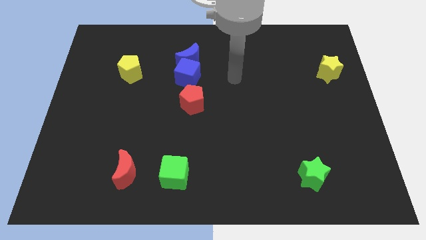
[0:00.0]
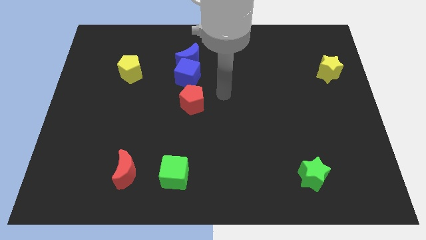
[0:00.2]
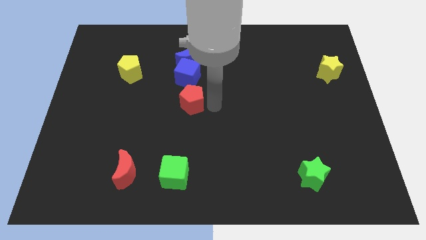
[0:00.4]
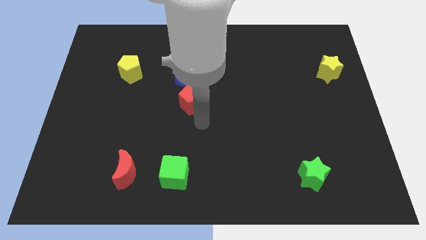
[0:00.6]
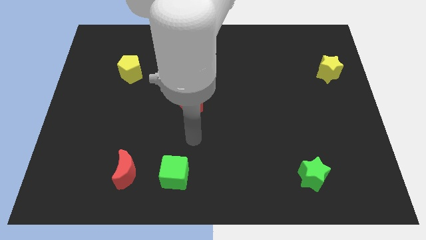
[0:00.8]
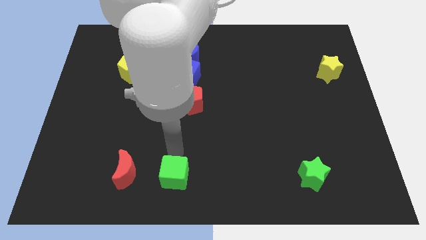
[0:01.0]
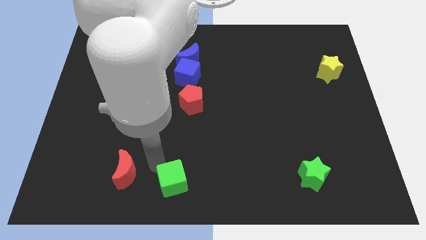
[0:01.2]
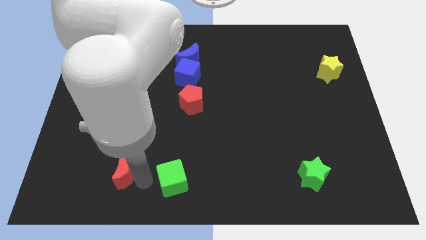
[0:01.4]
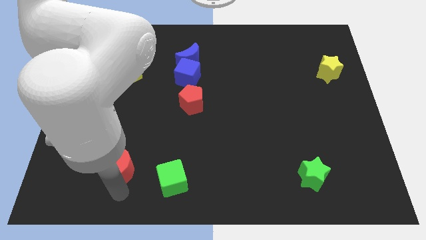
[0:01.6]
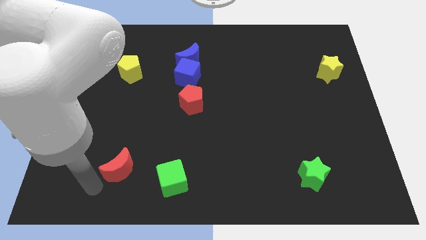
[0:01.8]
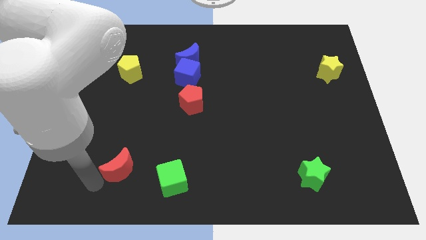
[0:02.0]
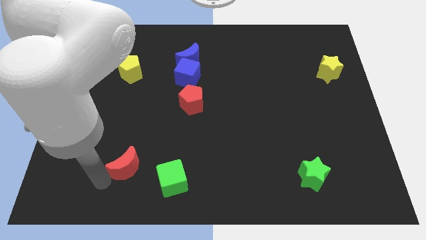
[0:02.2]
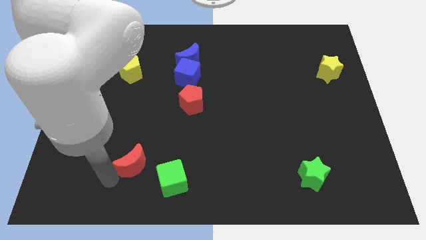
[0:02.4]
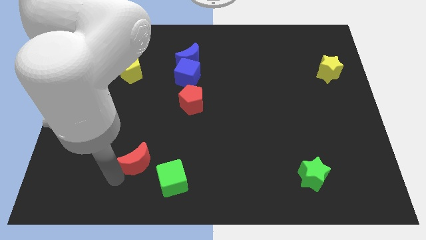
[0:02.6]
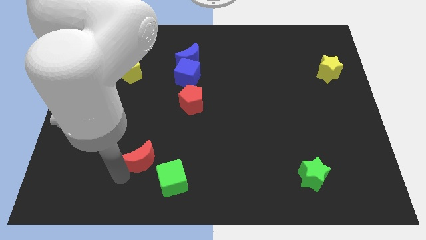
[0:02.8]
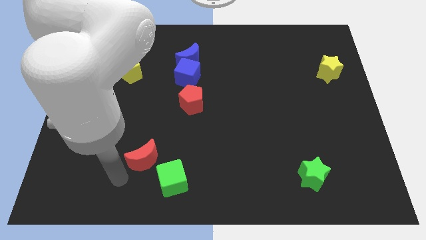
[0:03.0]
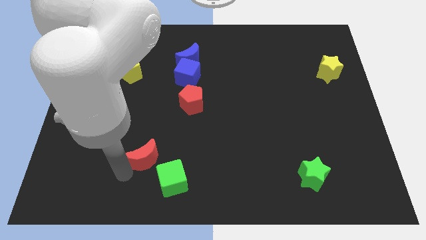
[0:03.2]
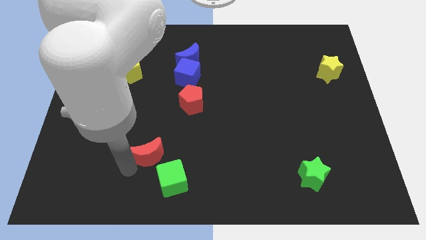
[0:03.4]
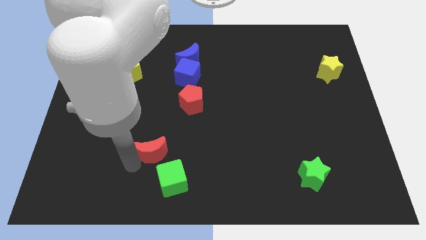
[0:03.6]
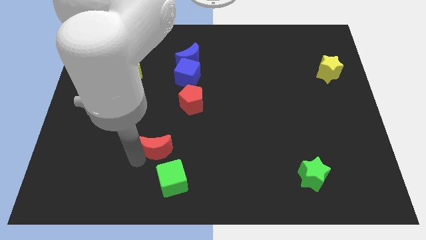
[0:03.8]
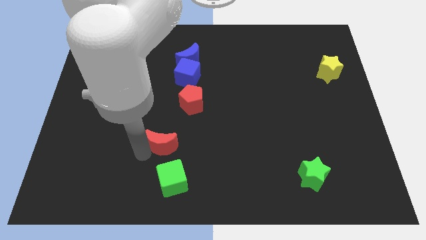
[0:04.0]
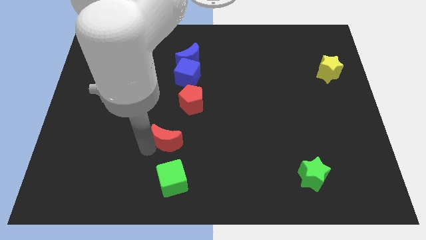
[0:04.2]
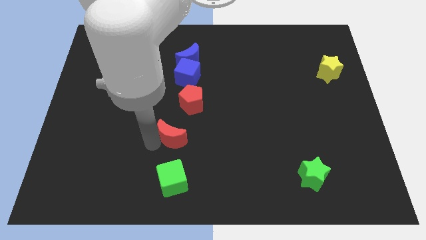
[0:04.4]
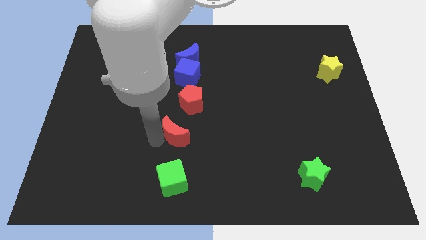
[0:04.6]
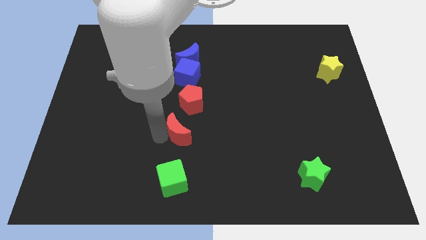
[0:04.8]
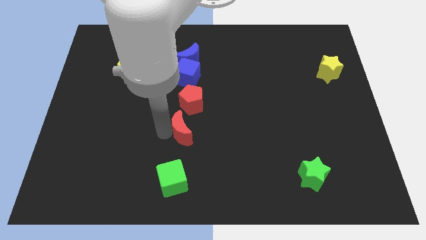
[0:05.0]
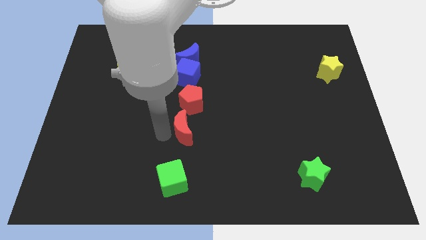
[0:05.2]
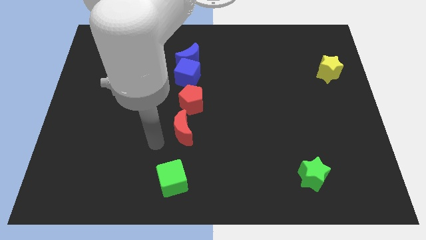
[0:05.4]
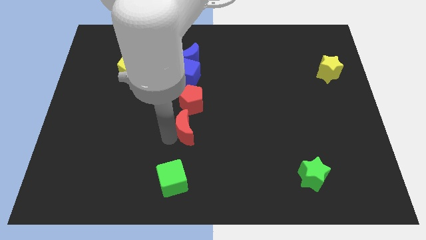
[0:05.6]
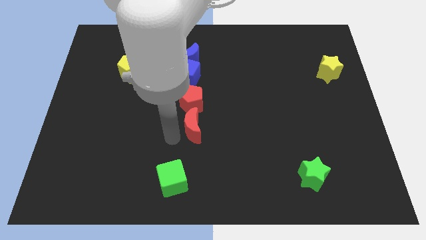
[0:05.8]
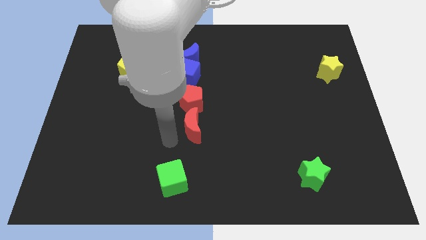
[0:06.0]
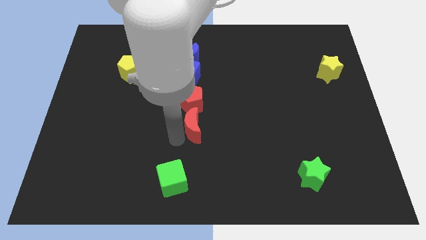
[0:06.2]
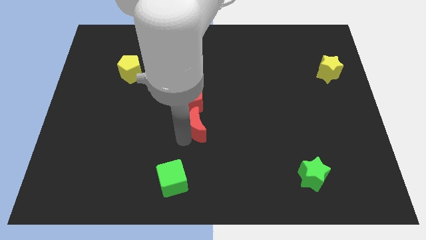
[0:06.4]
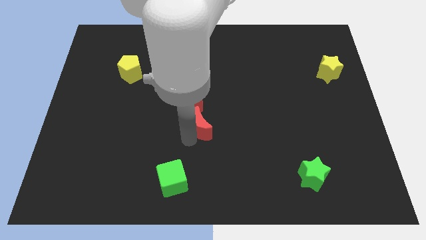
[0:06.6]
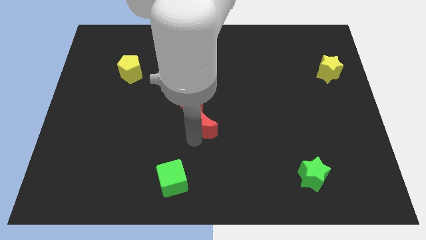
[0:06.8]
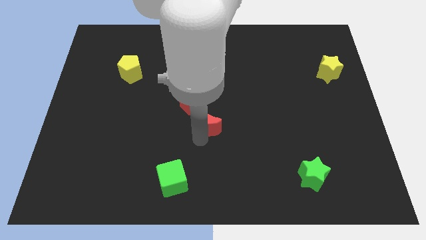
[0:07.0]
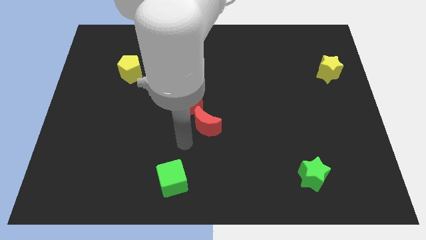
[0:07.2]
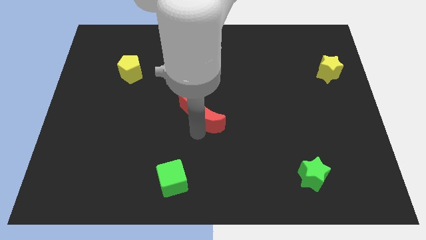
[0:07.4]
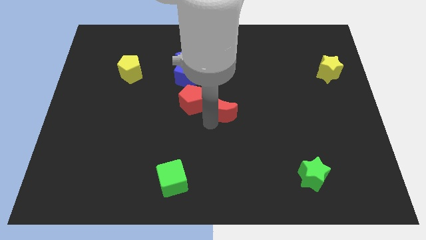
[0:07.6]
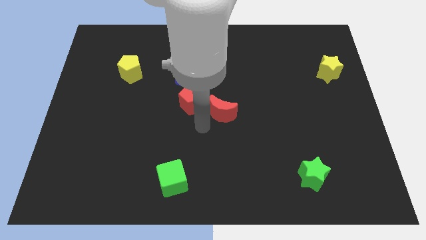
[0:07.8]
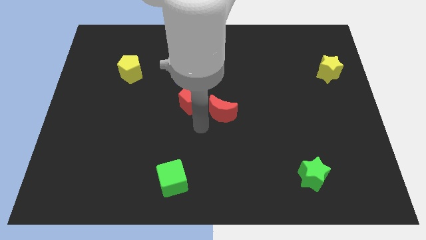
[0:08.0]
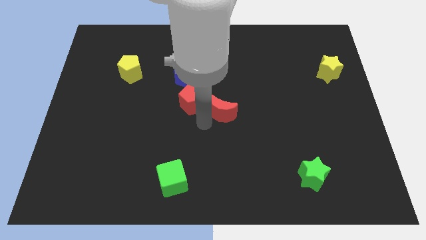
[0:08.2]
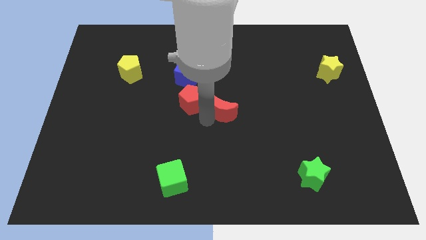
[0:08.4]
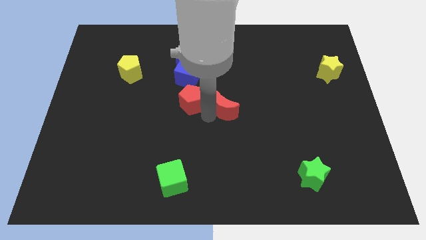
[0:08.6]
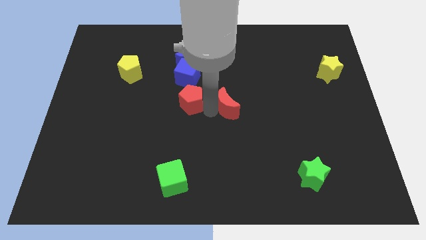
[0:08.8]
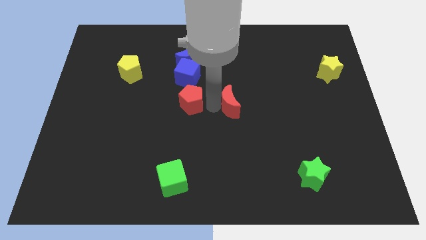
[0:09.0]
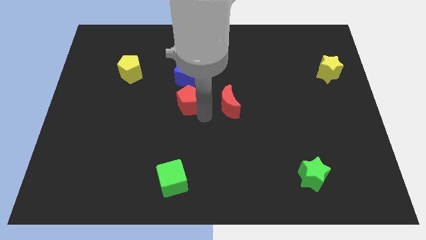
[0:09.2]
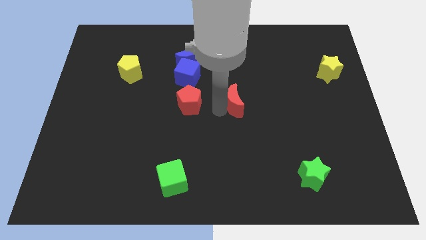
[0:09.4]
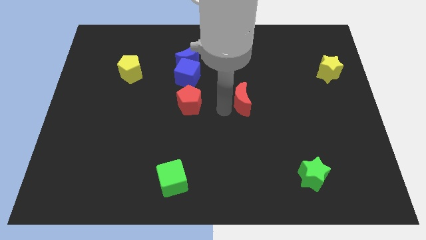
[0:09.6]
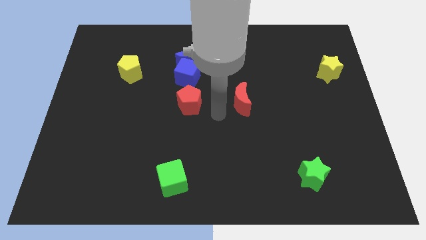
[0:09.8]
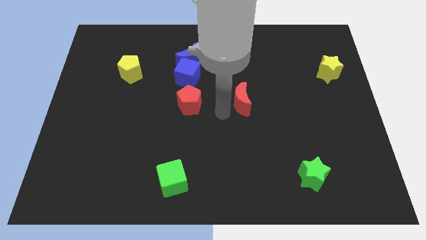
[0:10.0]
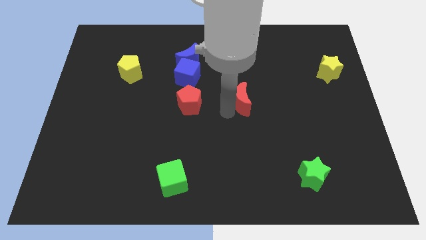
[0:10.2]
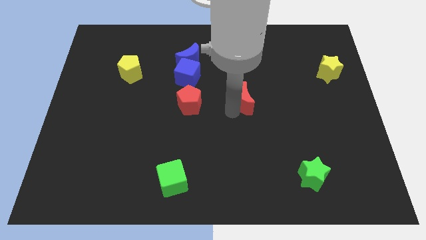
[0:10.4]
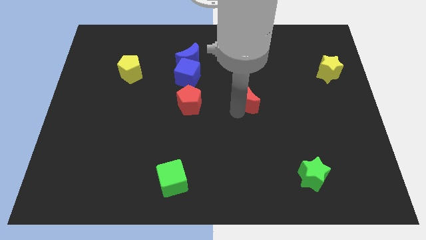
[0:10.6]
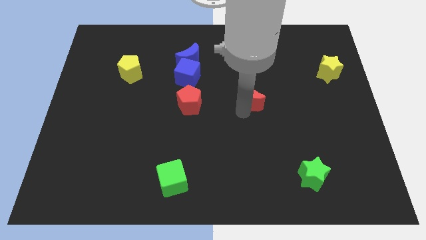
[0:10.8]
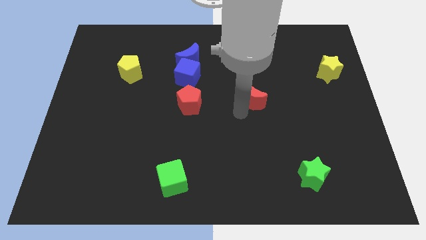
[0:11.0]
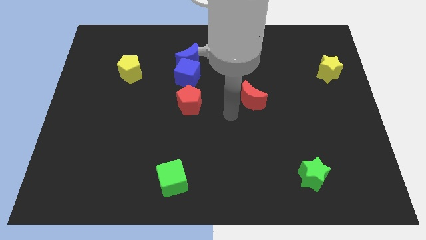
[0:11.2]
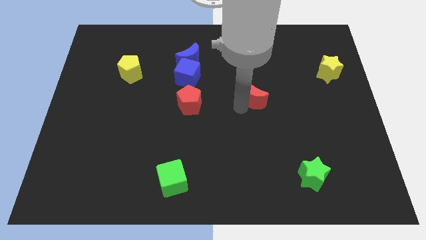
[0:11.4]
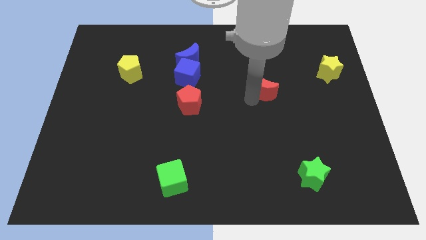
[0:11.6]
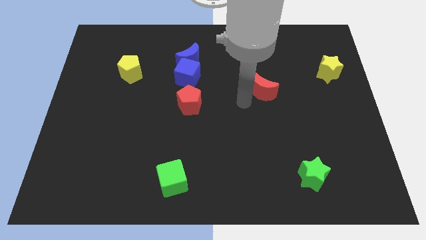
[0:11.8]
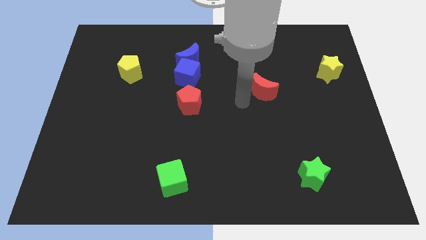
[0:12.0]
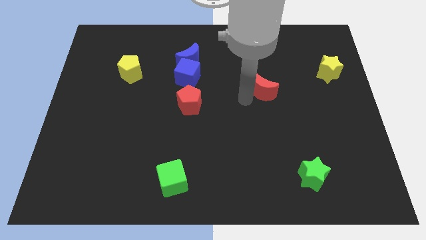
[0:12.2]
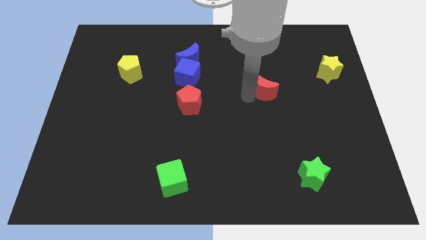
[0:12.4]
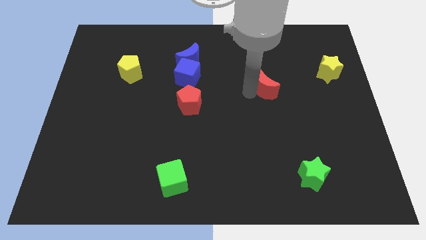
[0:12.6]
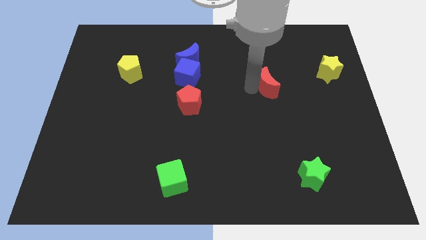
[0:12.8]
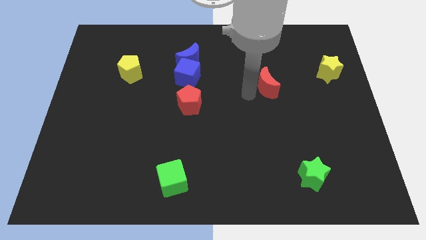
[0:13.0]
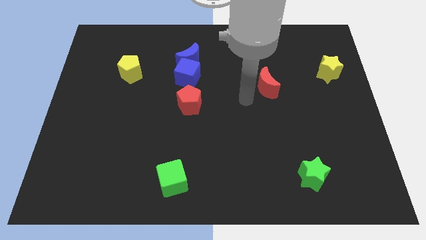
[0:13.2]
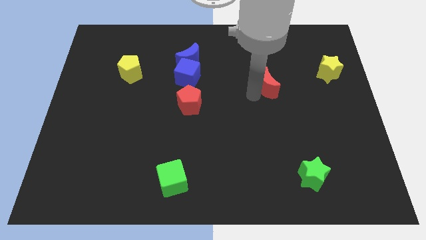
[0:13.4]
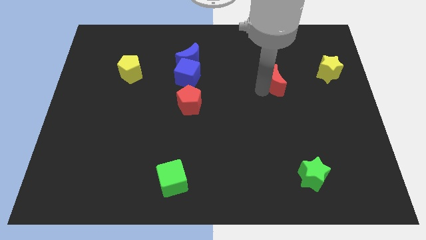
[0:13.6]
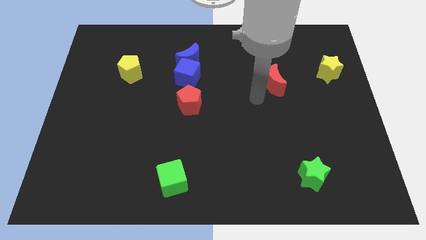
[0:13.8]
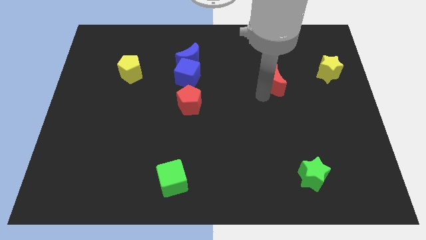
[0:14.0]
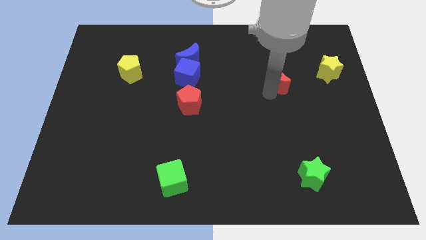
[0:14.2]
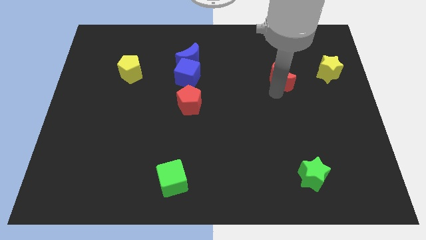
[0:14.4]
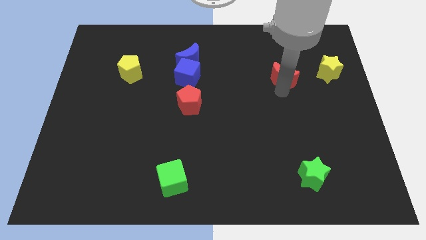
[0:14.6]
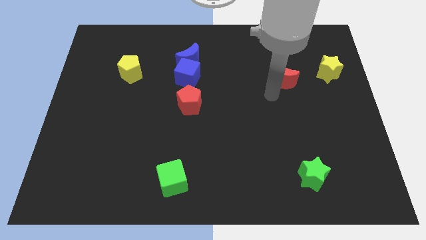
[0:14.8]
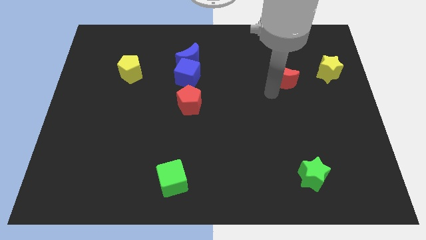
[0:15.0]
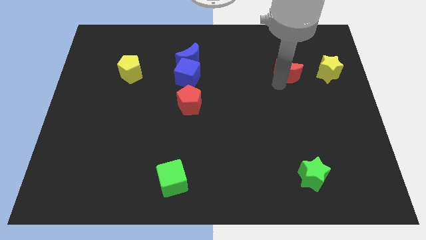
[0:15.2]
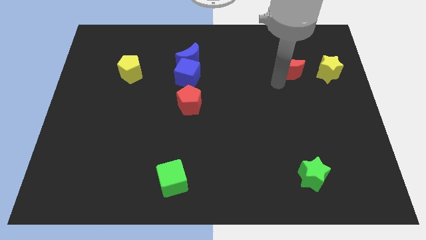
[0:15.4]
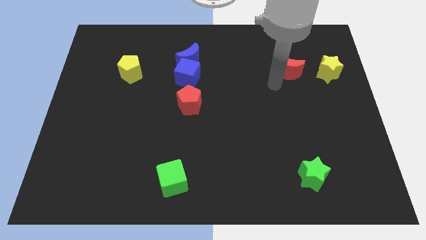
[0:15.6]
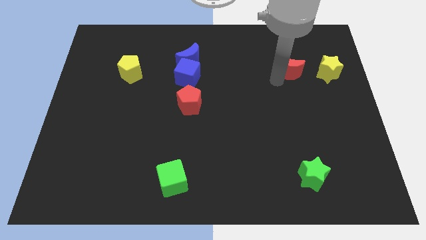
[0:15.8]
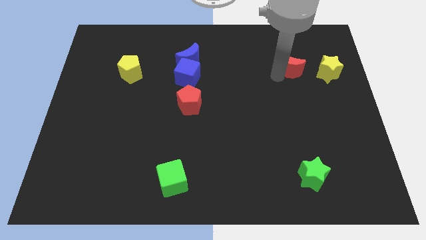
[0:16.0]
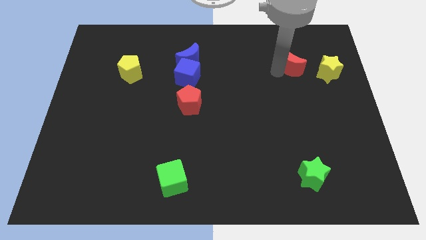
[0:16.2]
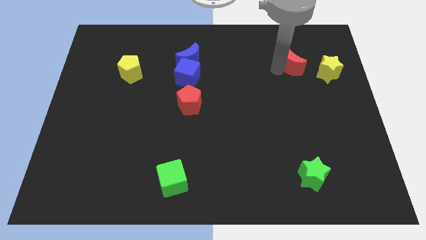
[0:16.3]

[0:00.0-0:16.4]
move the red moon diagonally up and to the left of the yellow star
